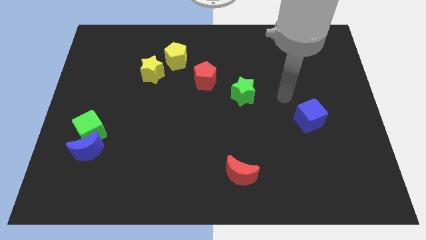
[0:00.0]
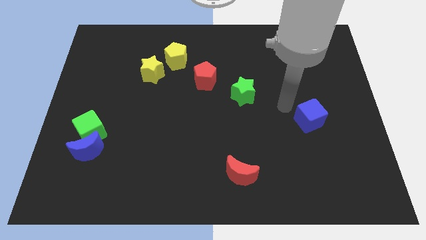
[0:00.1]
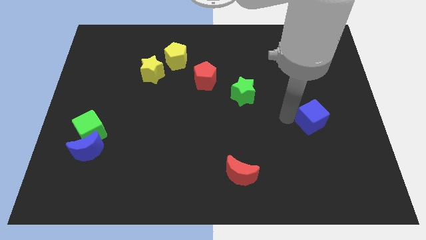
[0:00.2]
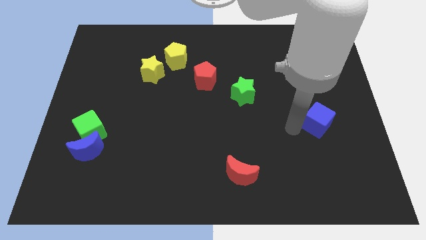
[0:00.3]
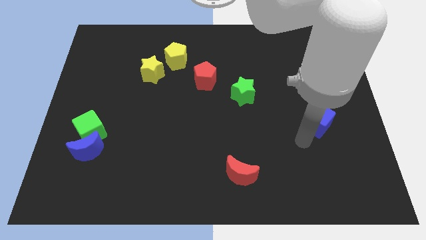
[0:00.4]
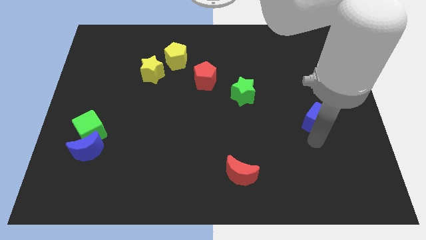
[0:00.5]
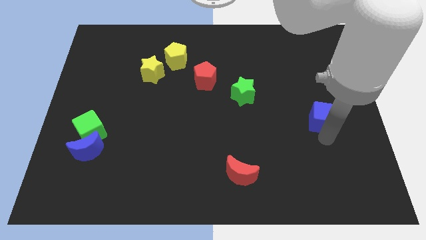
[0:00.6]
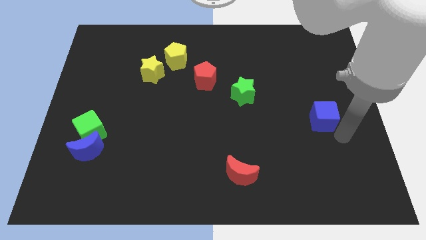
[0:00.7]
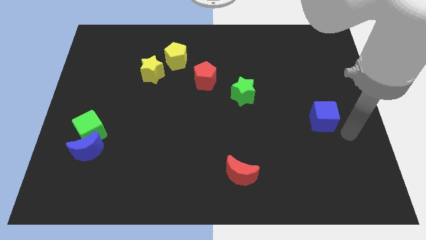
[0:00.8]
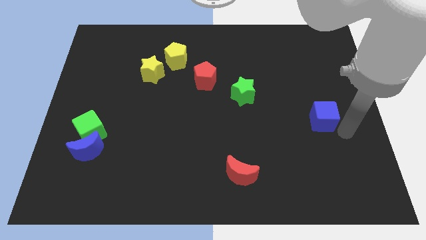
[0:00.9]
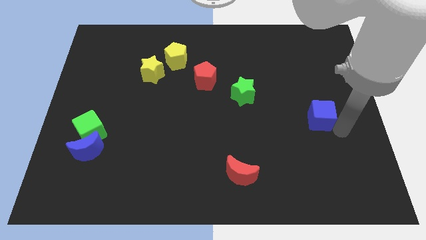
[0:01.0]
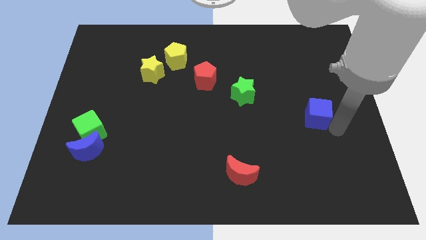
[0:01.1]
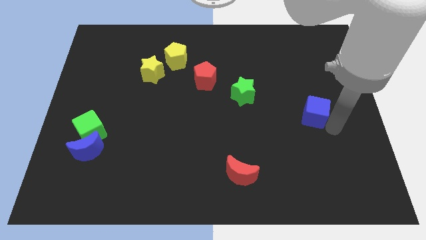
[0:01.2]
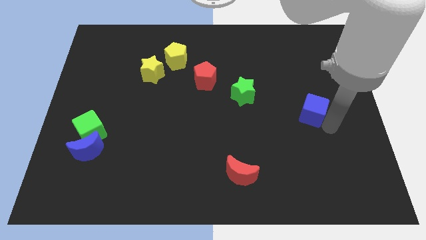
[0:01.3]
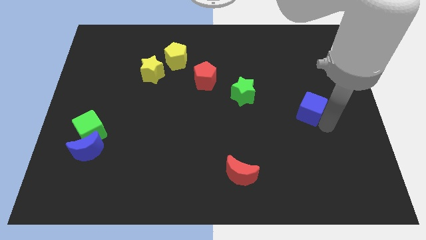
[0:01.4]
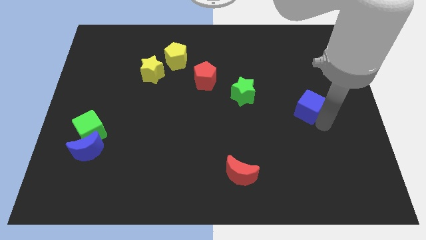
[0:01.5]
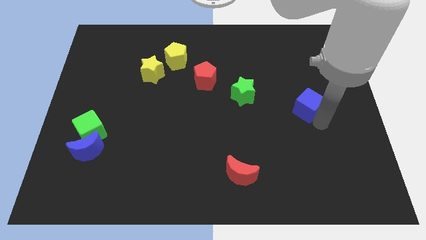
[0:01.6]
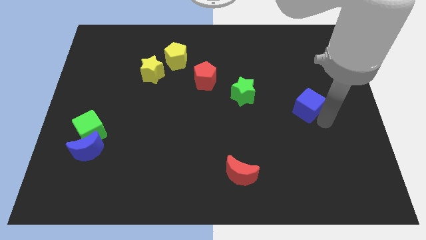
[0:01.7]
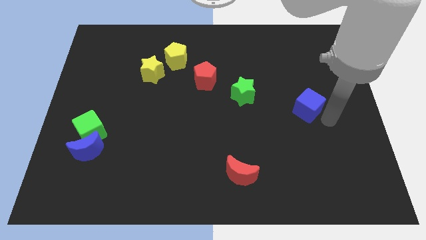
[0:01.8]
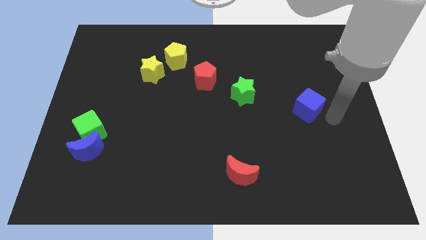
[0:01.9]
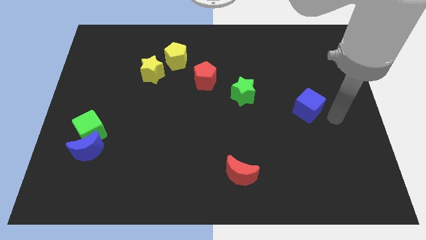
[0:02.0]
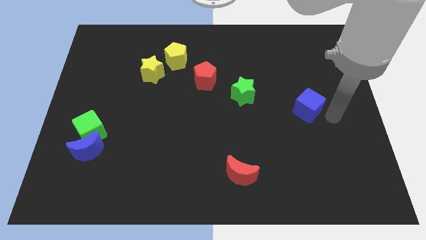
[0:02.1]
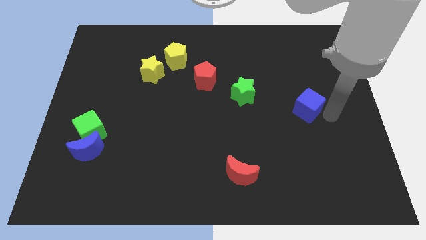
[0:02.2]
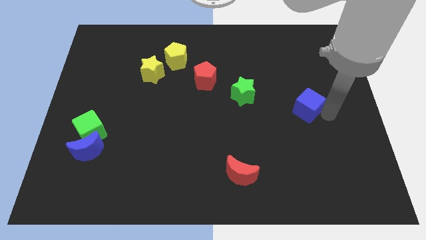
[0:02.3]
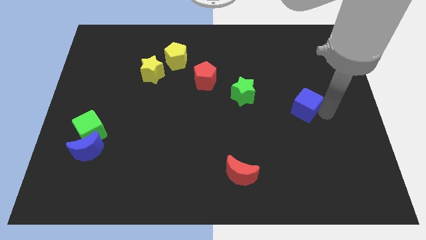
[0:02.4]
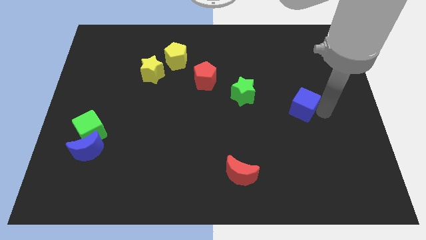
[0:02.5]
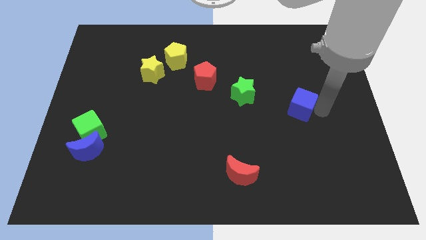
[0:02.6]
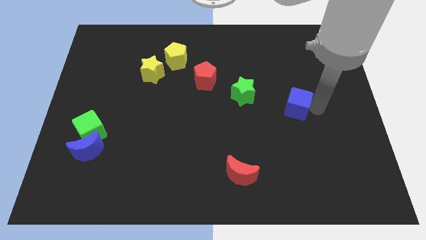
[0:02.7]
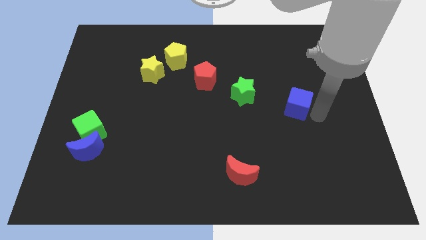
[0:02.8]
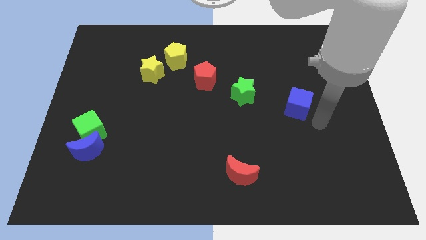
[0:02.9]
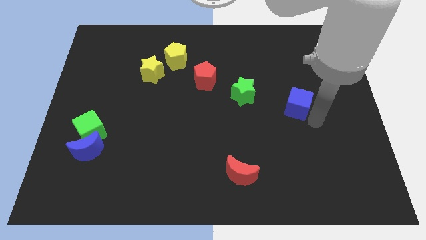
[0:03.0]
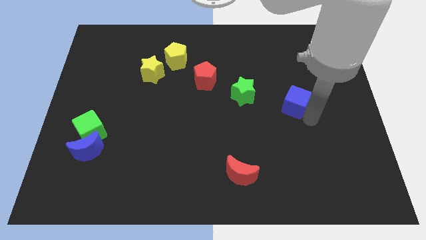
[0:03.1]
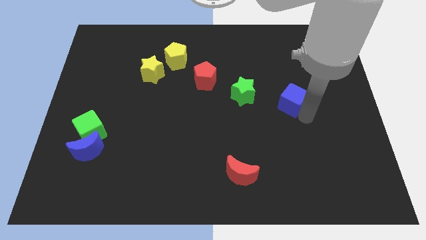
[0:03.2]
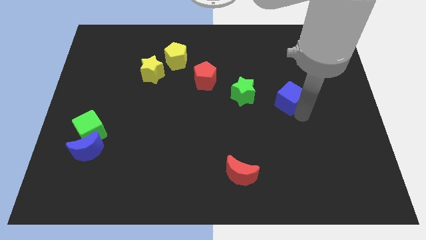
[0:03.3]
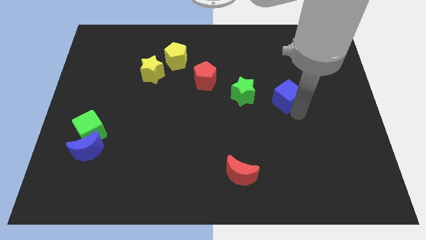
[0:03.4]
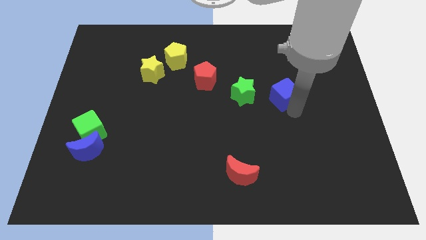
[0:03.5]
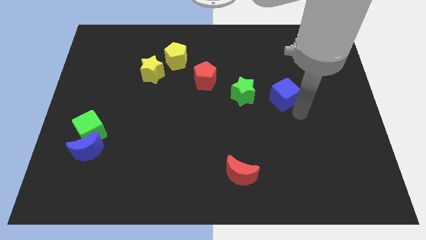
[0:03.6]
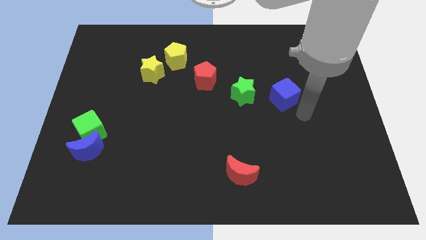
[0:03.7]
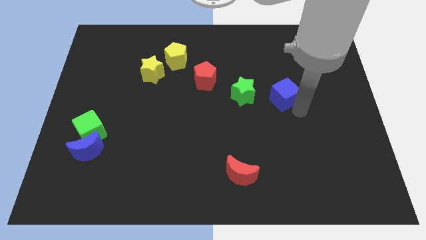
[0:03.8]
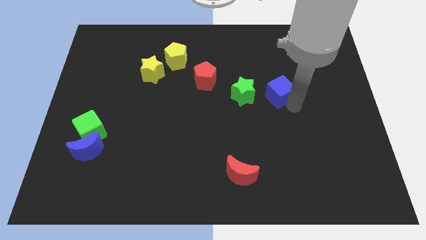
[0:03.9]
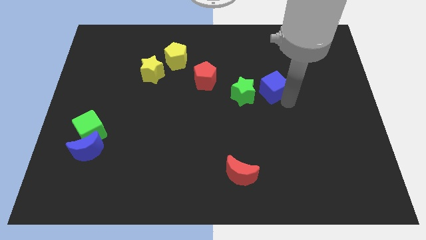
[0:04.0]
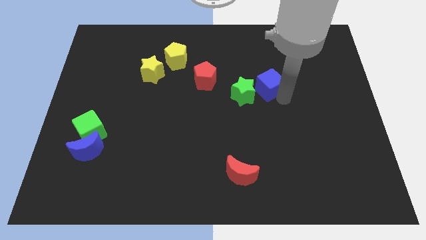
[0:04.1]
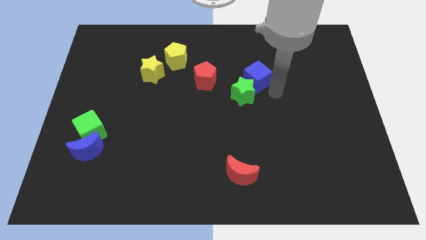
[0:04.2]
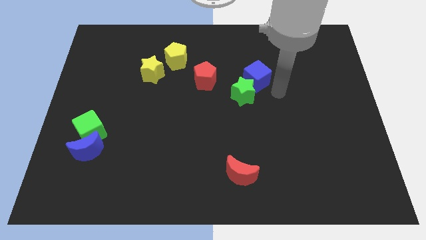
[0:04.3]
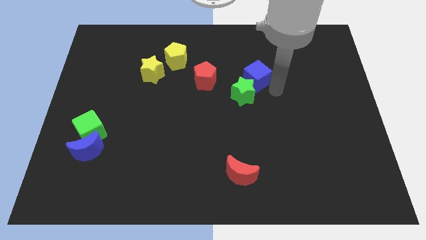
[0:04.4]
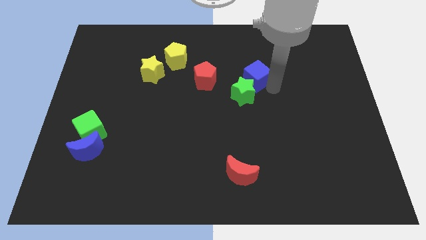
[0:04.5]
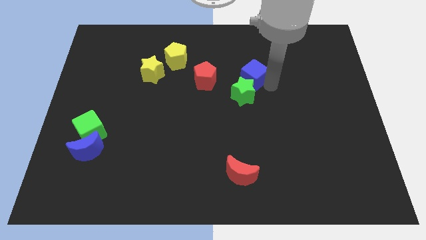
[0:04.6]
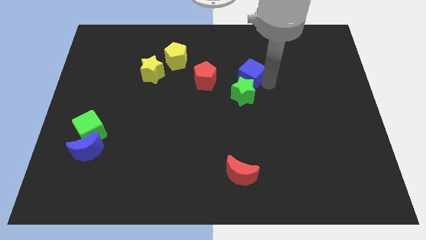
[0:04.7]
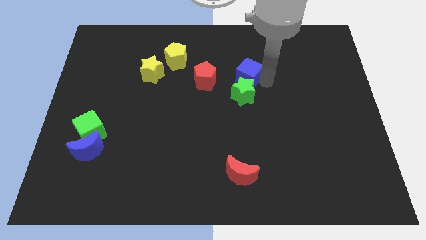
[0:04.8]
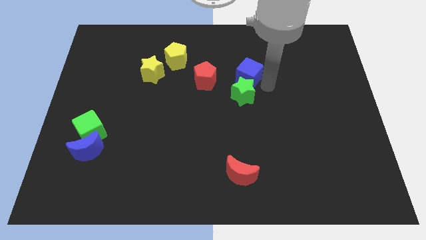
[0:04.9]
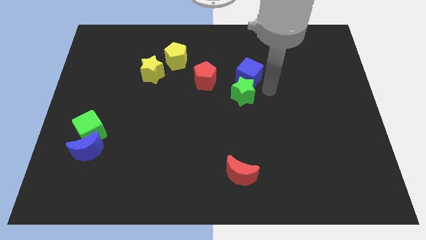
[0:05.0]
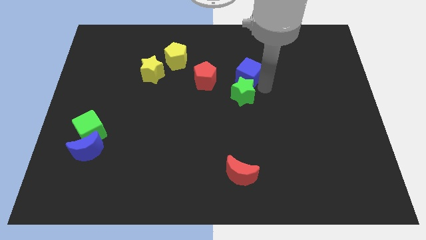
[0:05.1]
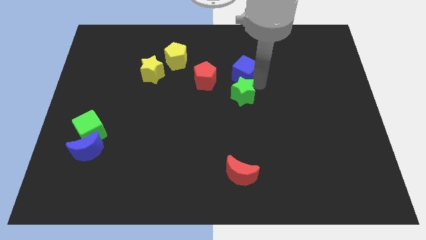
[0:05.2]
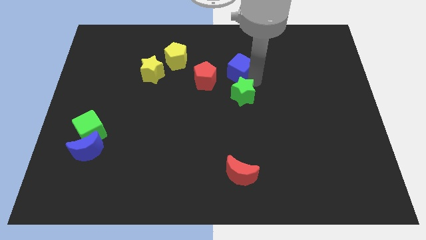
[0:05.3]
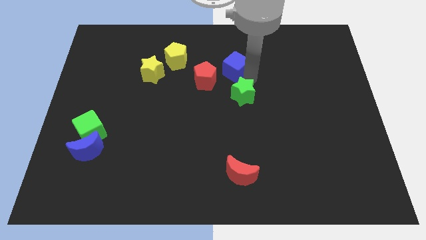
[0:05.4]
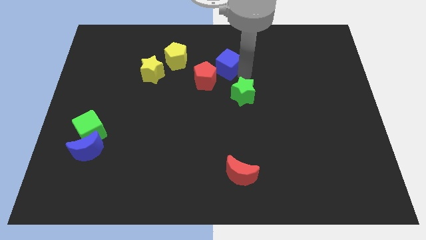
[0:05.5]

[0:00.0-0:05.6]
push the blue cube just right of the yellow pentagon

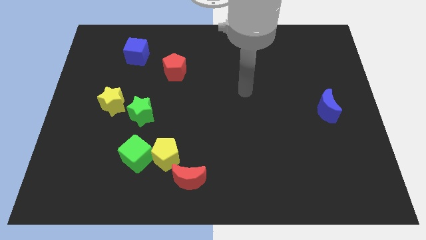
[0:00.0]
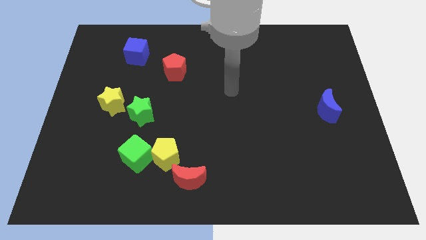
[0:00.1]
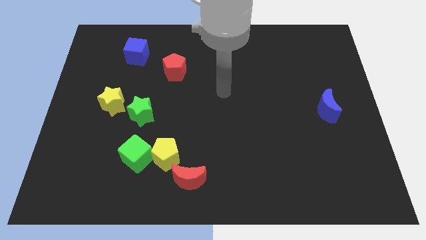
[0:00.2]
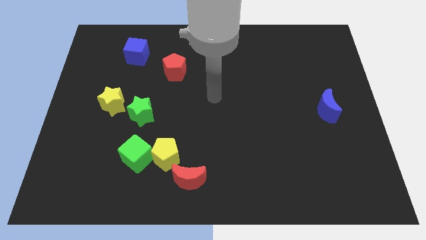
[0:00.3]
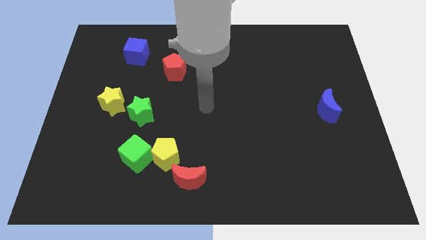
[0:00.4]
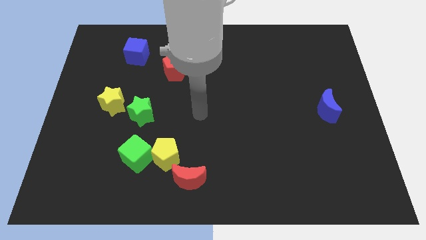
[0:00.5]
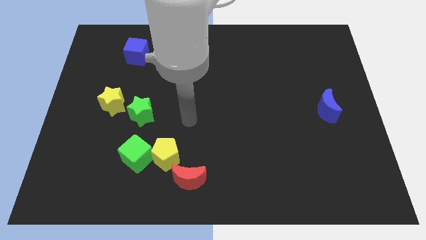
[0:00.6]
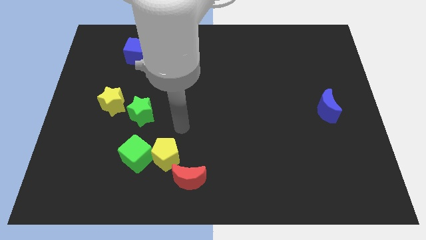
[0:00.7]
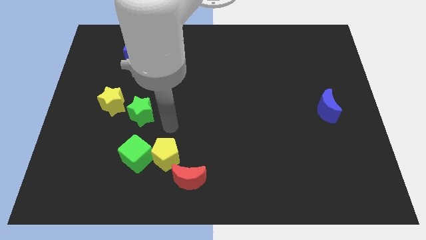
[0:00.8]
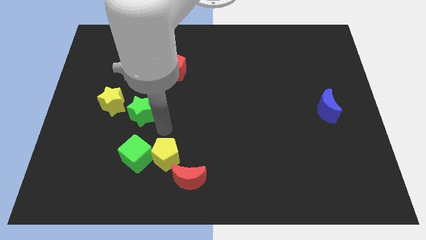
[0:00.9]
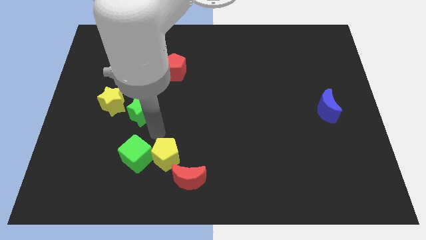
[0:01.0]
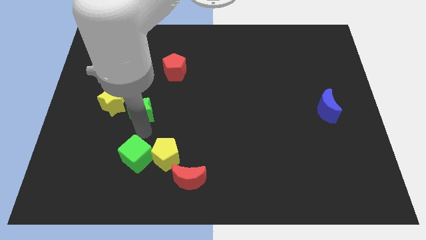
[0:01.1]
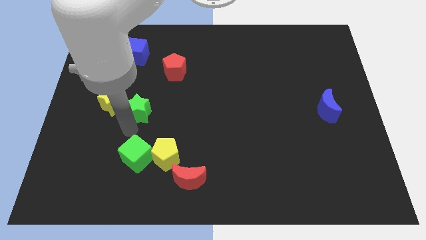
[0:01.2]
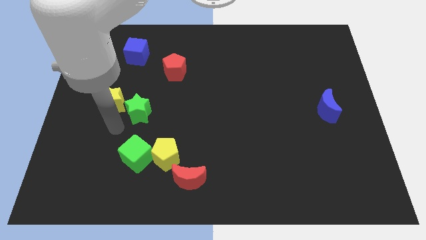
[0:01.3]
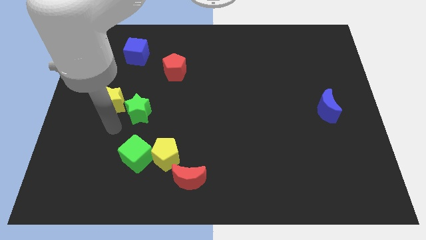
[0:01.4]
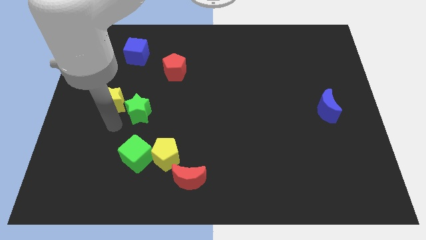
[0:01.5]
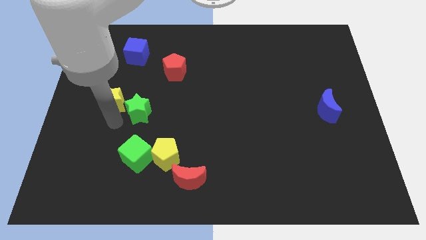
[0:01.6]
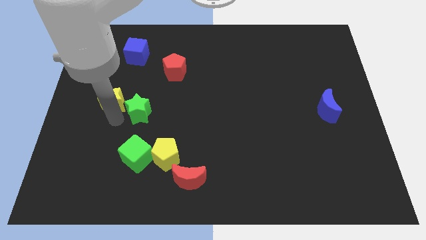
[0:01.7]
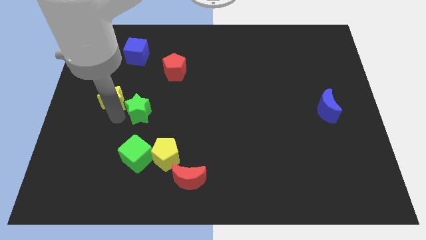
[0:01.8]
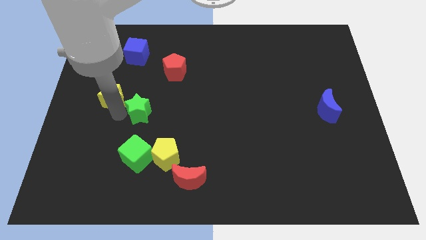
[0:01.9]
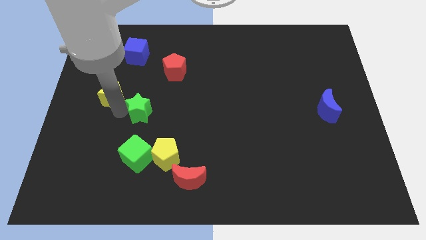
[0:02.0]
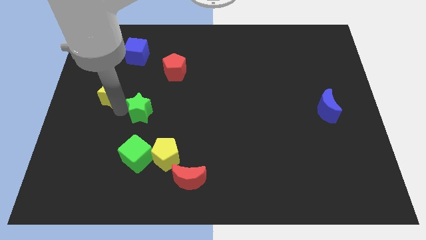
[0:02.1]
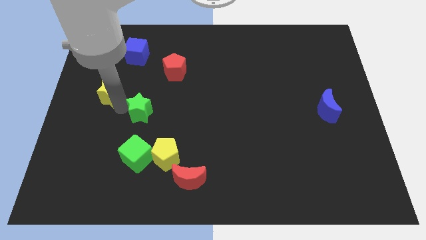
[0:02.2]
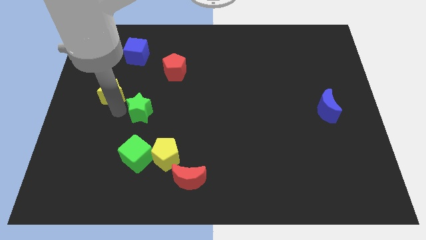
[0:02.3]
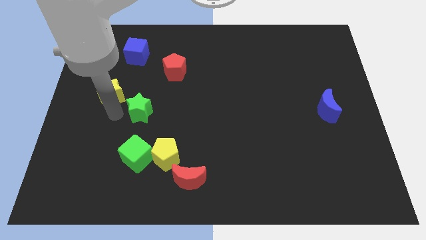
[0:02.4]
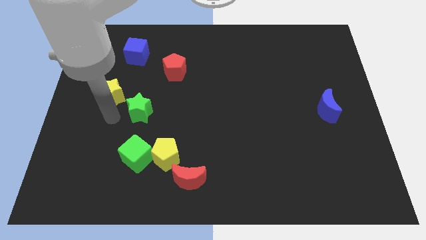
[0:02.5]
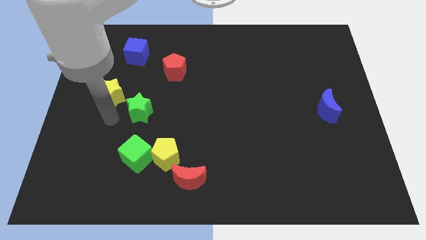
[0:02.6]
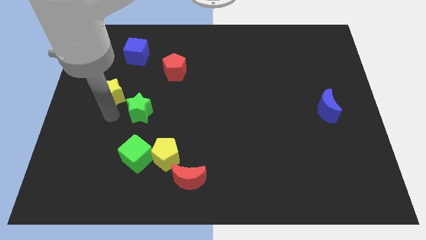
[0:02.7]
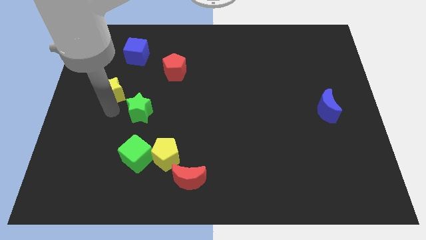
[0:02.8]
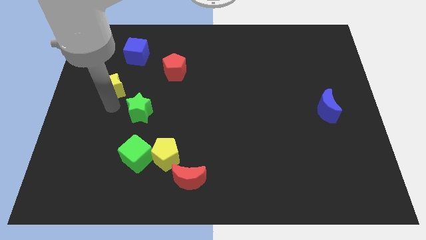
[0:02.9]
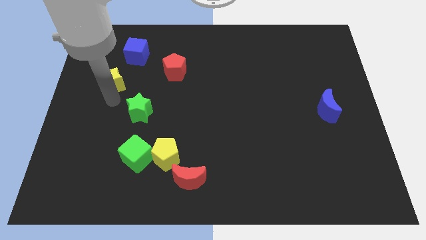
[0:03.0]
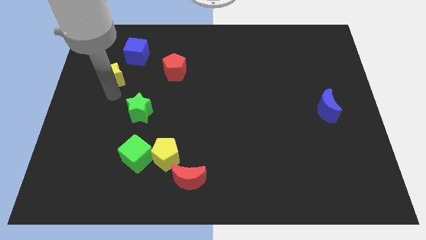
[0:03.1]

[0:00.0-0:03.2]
put the yellow star to the bottom left side of the blue cube
